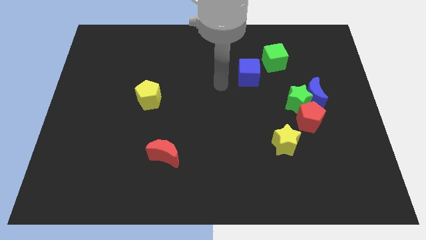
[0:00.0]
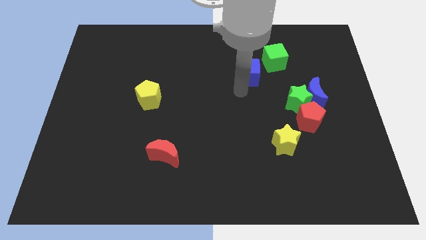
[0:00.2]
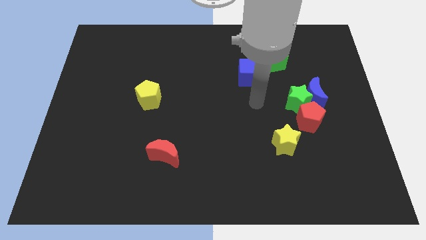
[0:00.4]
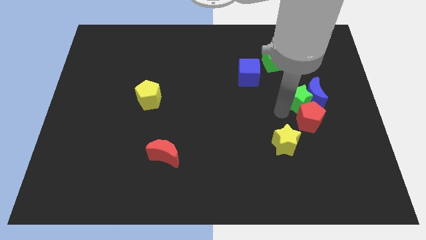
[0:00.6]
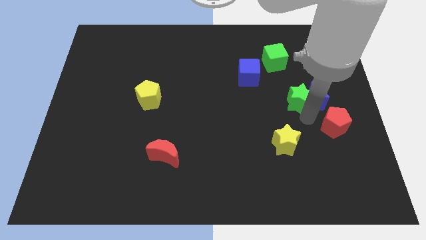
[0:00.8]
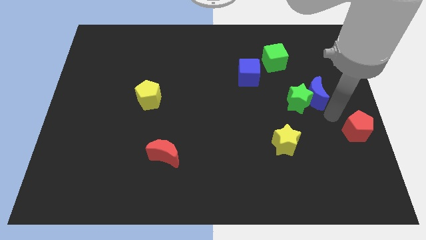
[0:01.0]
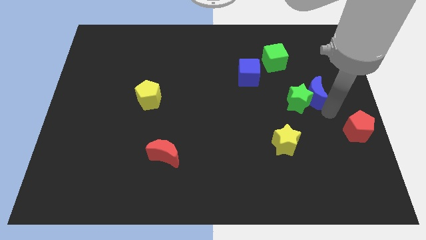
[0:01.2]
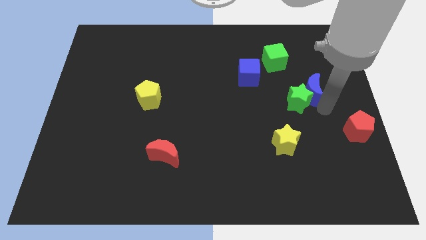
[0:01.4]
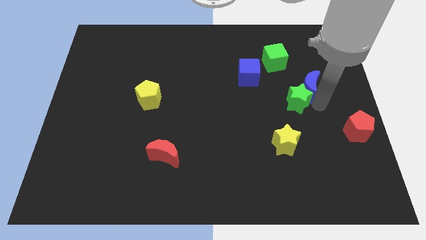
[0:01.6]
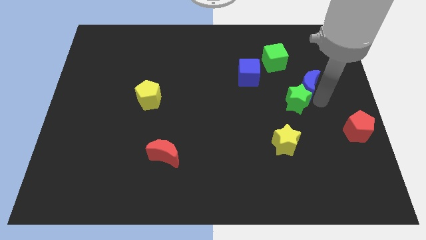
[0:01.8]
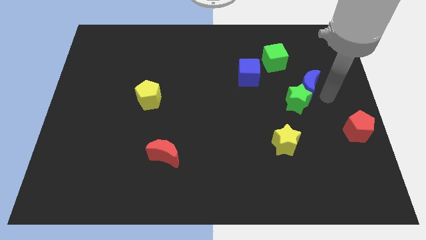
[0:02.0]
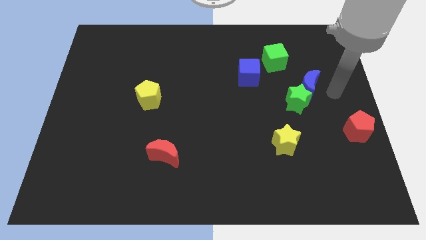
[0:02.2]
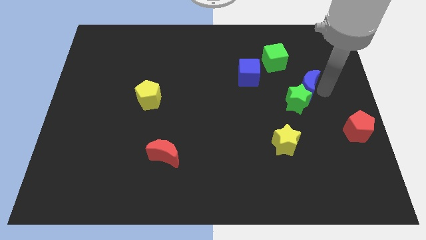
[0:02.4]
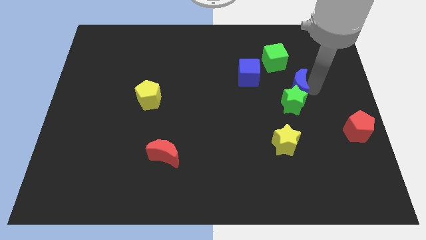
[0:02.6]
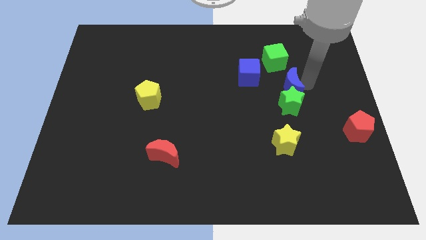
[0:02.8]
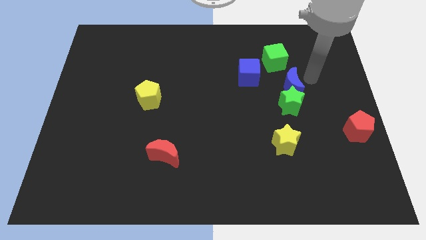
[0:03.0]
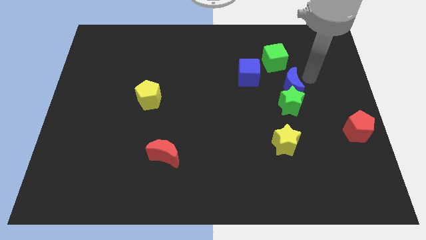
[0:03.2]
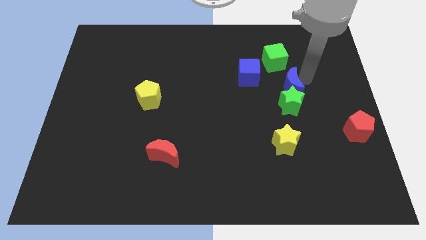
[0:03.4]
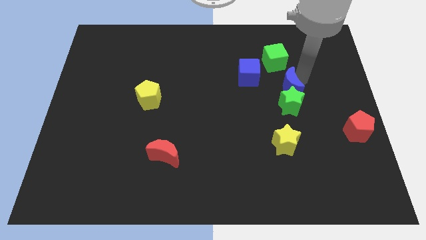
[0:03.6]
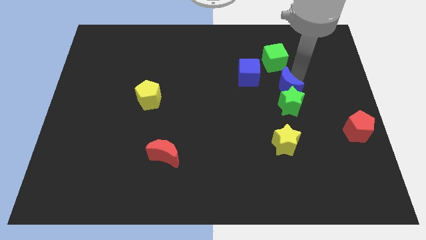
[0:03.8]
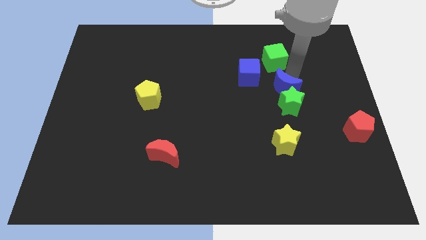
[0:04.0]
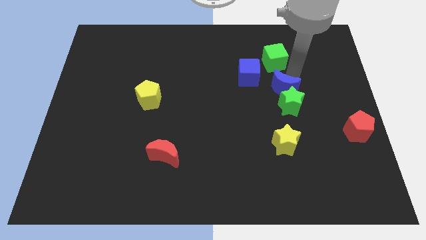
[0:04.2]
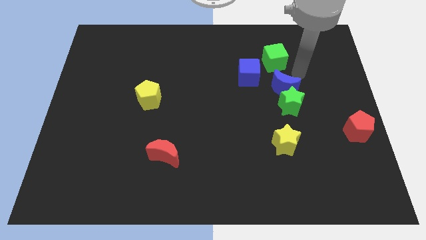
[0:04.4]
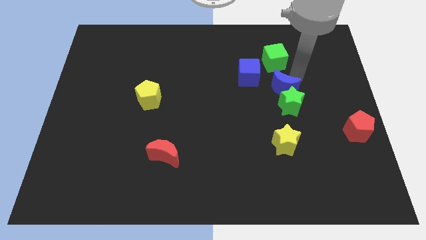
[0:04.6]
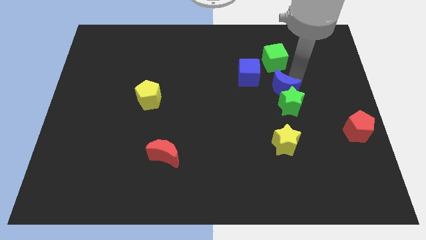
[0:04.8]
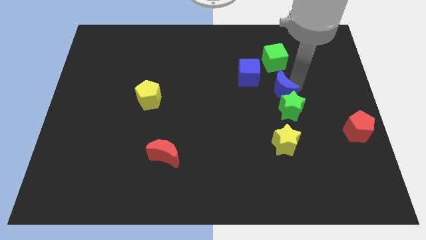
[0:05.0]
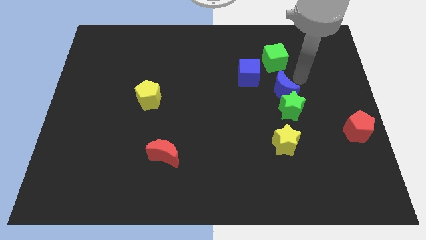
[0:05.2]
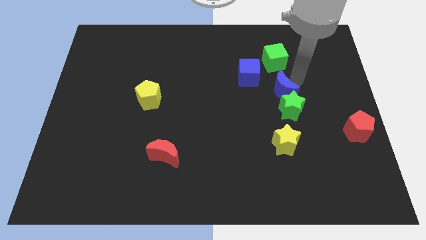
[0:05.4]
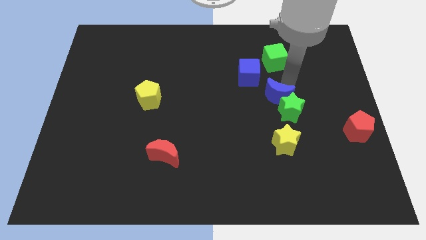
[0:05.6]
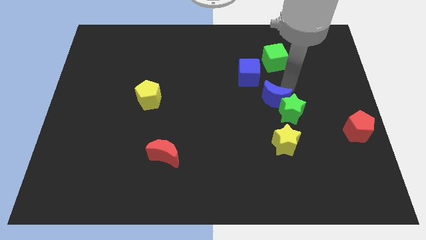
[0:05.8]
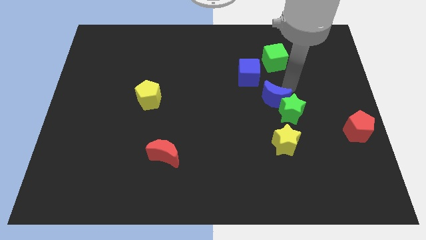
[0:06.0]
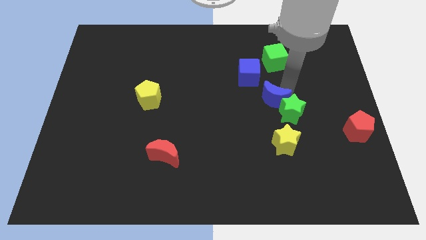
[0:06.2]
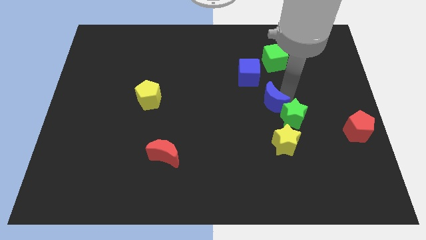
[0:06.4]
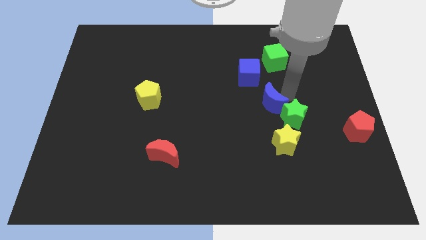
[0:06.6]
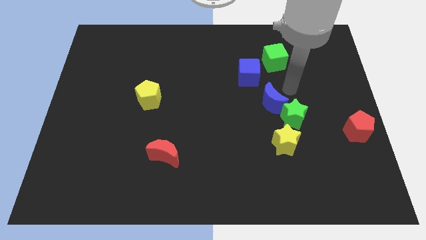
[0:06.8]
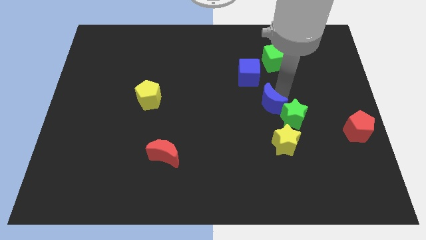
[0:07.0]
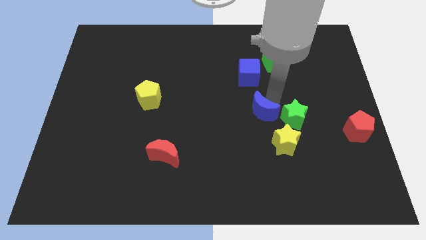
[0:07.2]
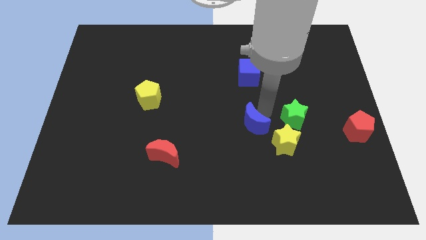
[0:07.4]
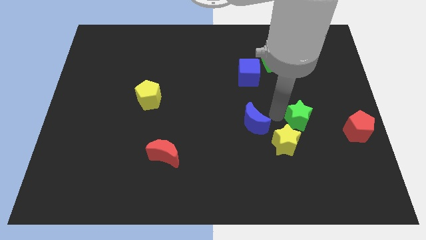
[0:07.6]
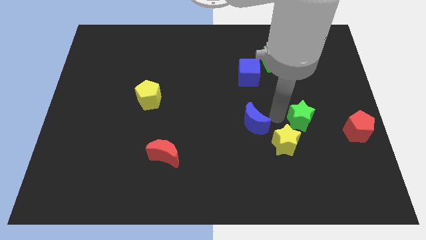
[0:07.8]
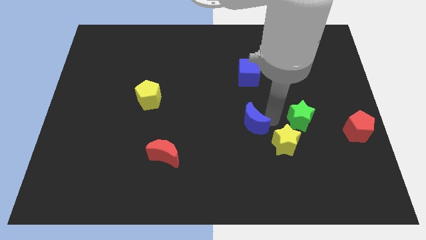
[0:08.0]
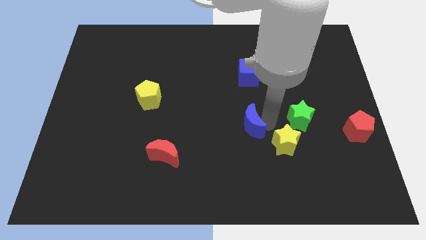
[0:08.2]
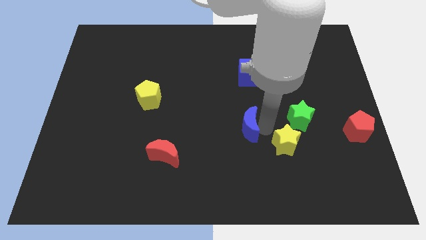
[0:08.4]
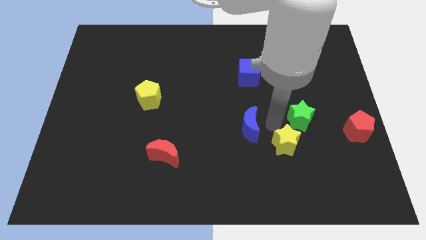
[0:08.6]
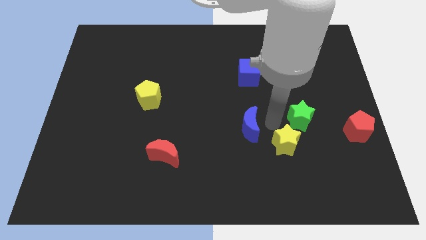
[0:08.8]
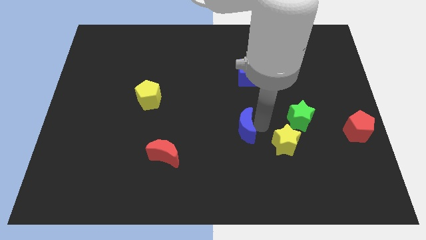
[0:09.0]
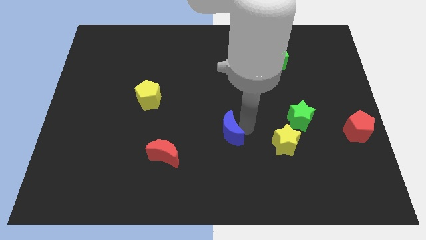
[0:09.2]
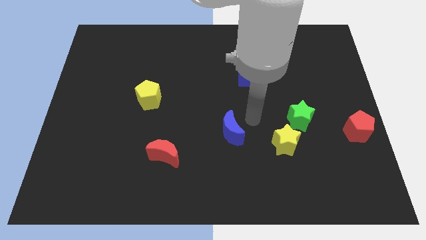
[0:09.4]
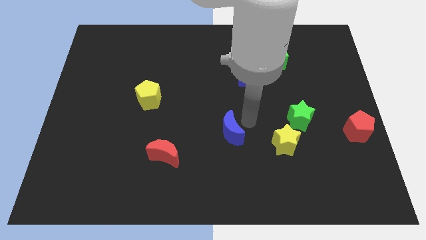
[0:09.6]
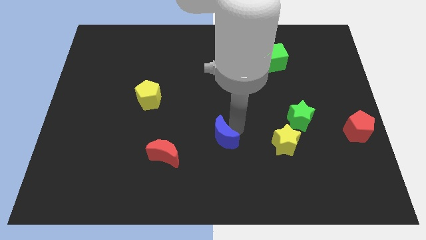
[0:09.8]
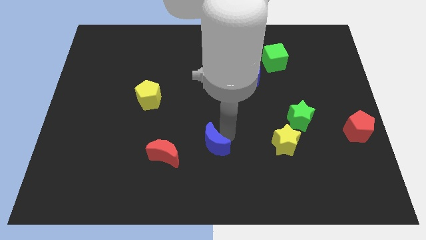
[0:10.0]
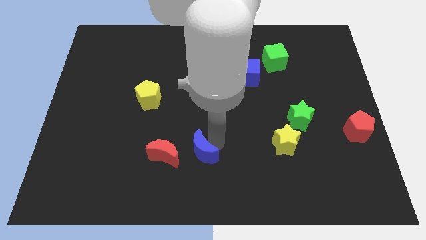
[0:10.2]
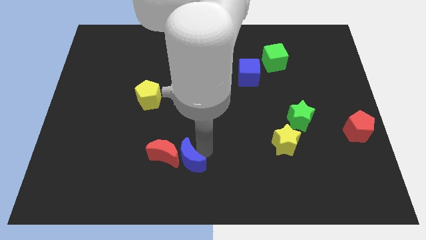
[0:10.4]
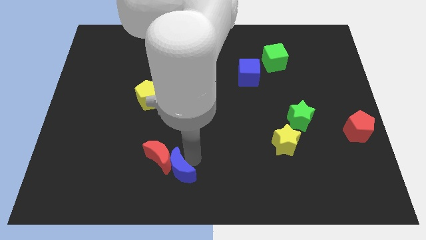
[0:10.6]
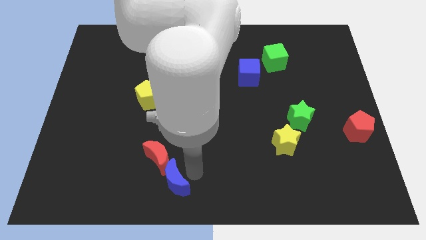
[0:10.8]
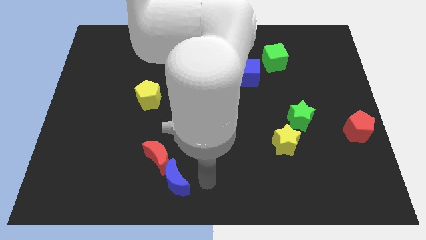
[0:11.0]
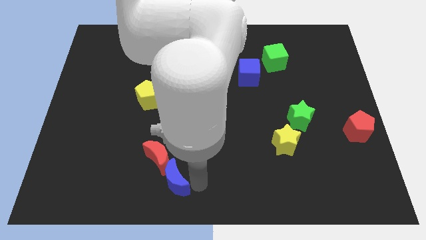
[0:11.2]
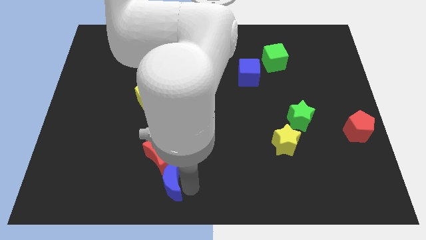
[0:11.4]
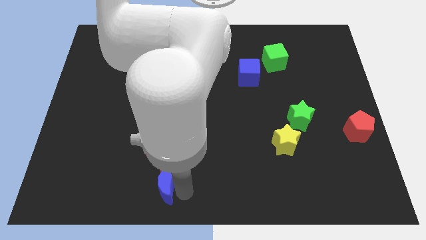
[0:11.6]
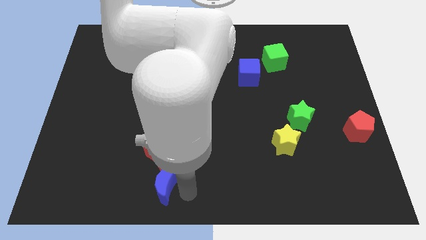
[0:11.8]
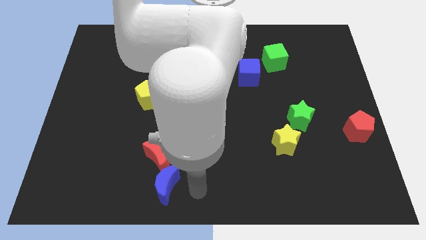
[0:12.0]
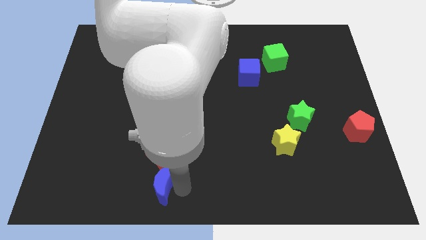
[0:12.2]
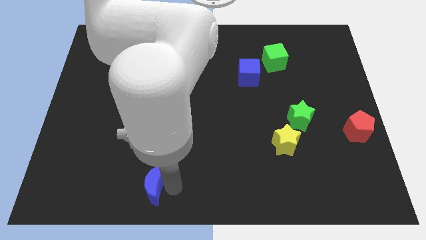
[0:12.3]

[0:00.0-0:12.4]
move the blue moon diagonally down and to the left of the red moon

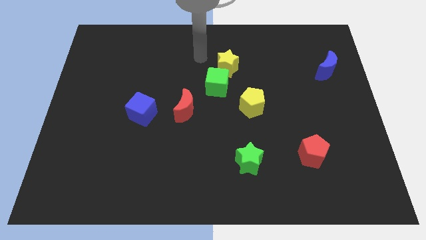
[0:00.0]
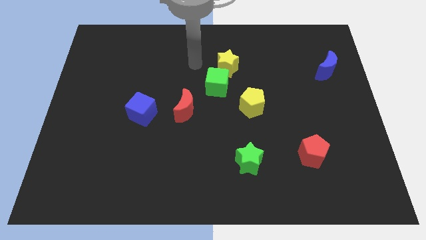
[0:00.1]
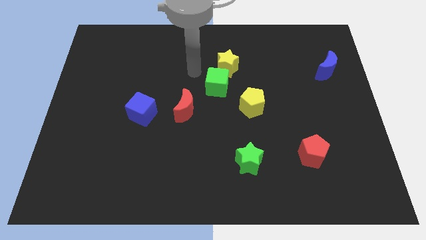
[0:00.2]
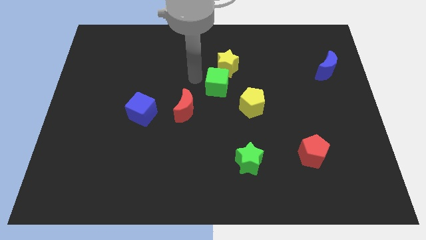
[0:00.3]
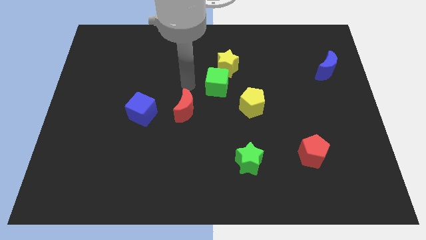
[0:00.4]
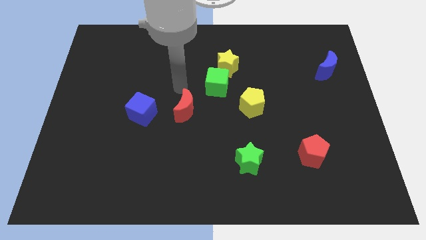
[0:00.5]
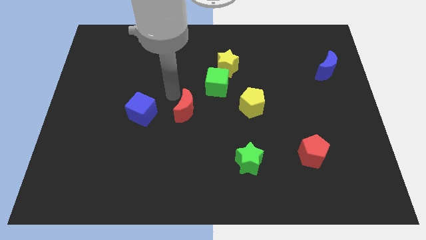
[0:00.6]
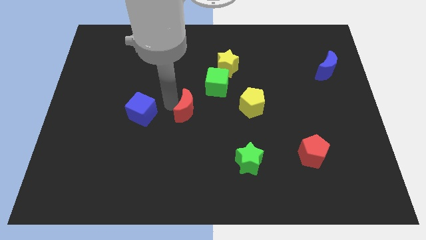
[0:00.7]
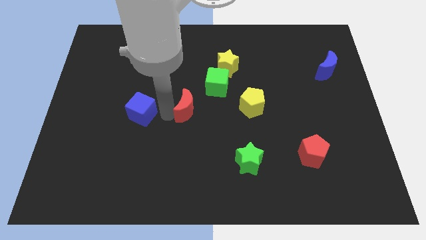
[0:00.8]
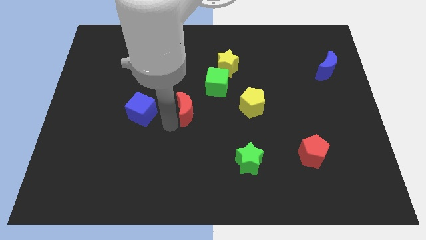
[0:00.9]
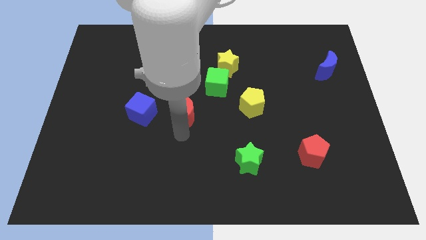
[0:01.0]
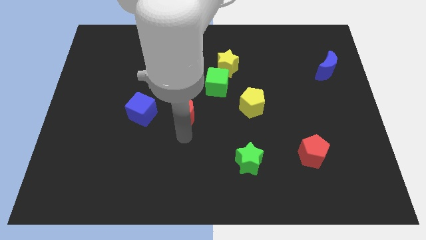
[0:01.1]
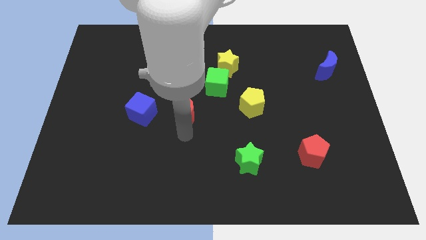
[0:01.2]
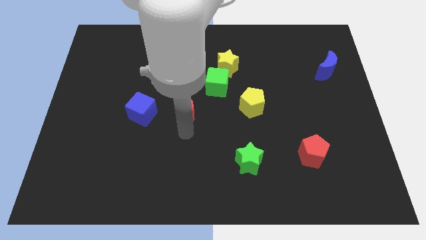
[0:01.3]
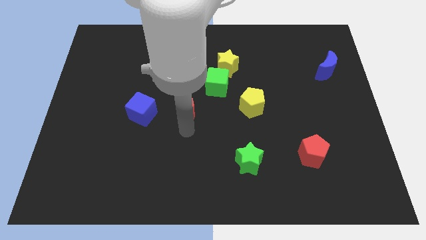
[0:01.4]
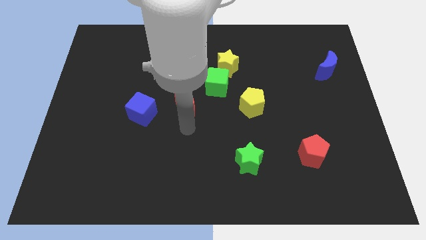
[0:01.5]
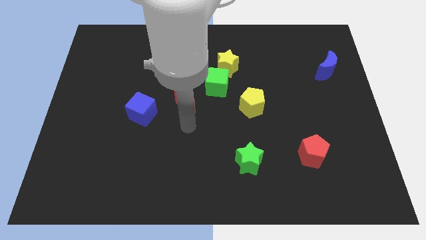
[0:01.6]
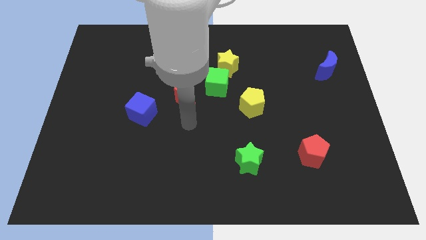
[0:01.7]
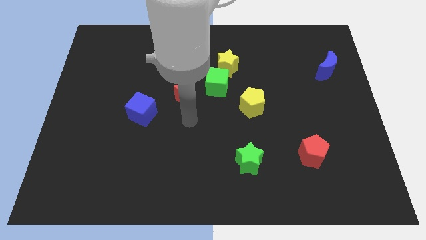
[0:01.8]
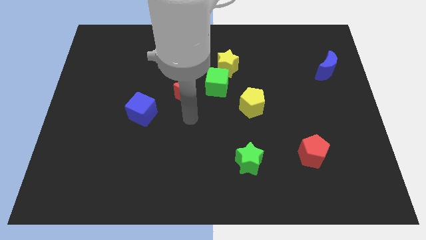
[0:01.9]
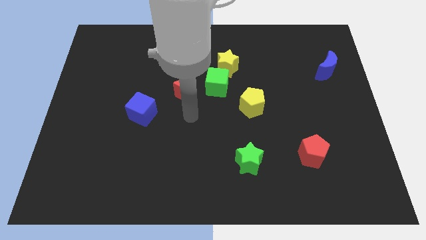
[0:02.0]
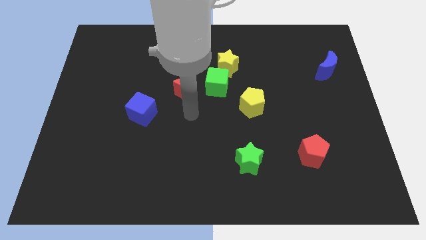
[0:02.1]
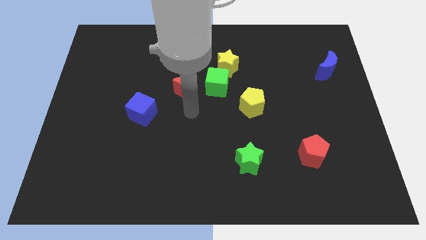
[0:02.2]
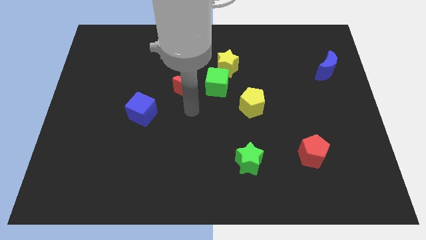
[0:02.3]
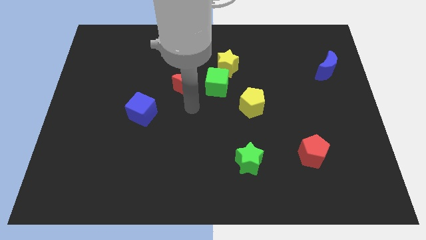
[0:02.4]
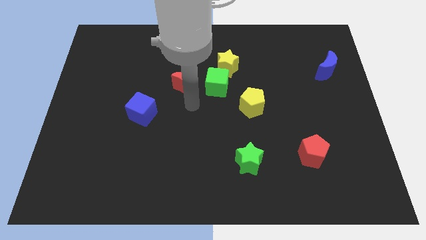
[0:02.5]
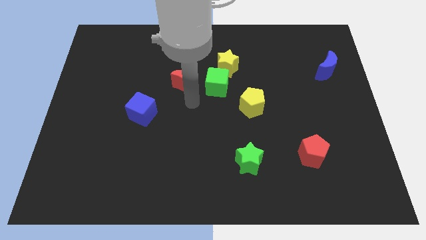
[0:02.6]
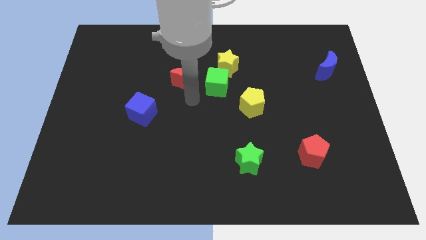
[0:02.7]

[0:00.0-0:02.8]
push the red moon diagonally up and to the left of the green cube
